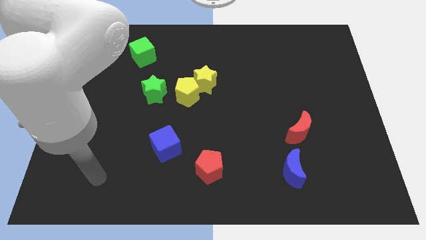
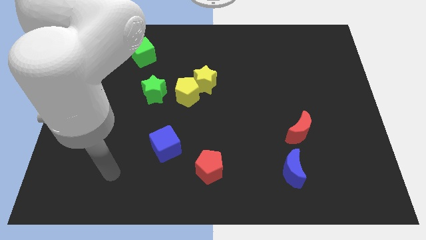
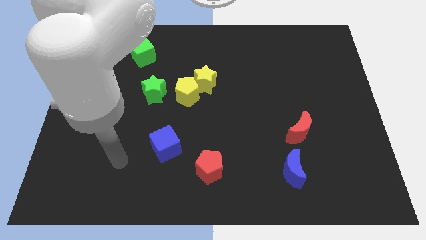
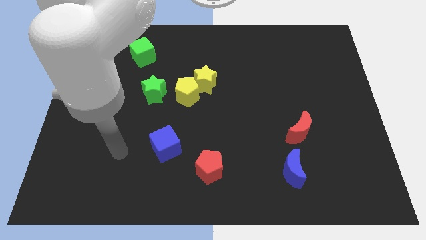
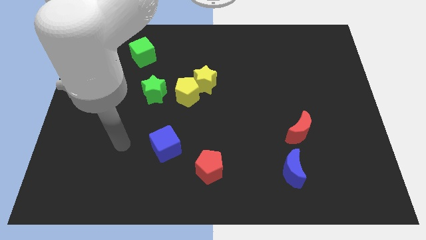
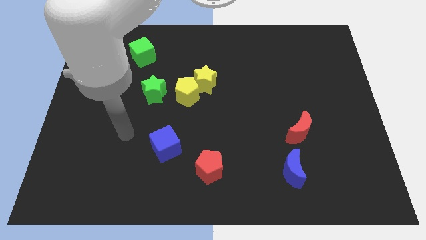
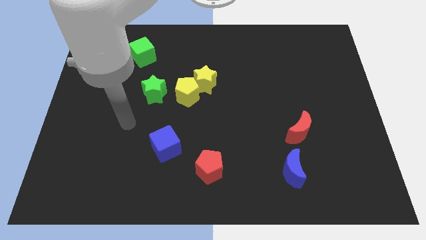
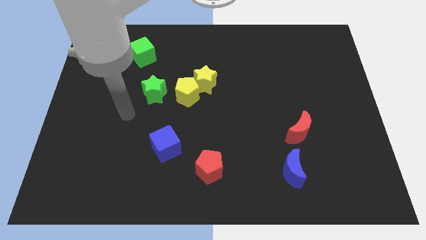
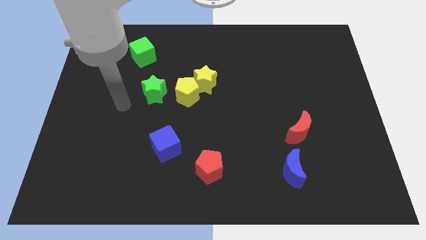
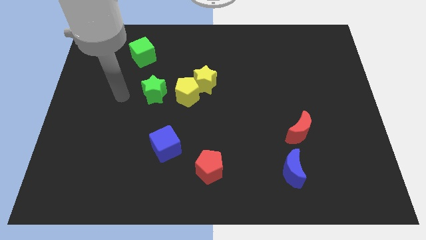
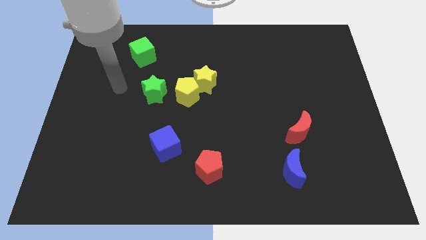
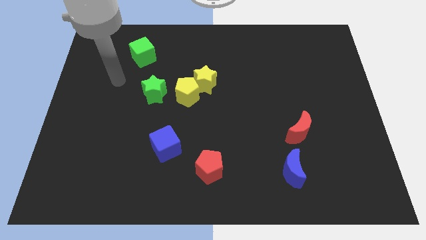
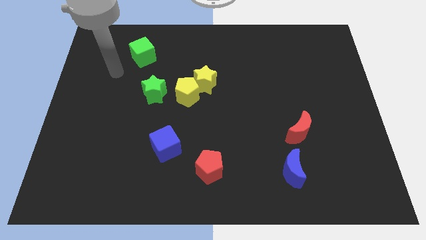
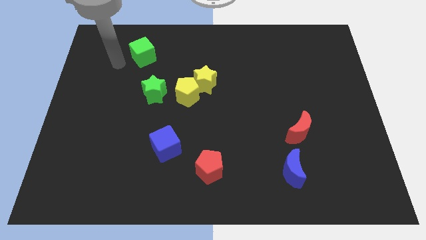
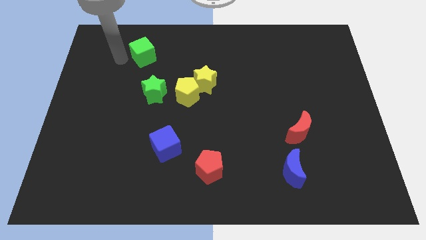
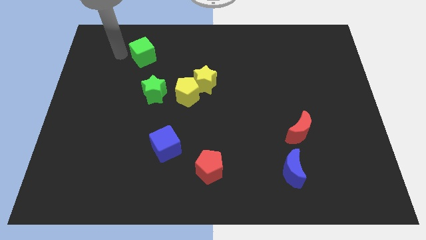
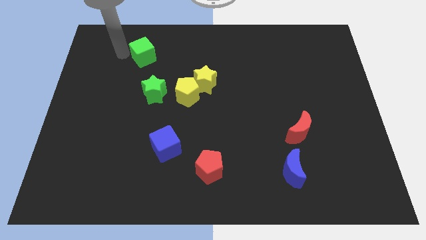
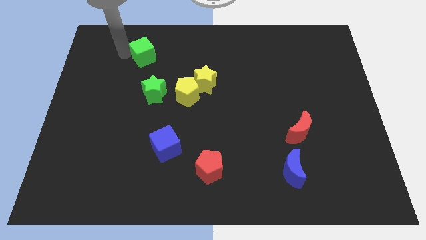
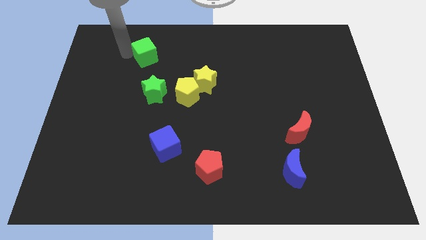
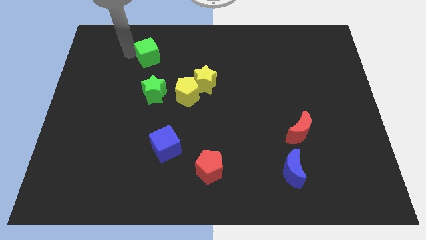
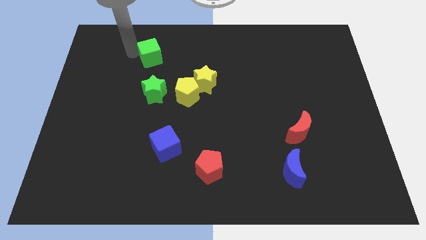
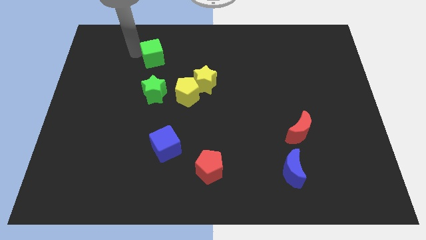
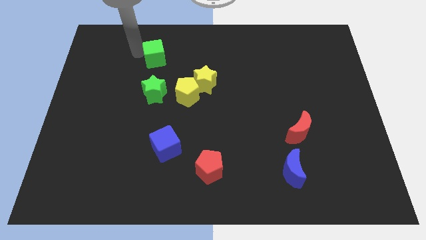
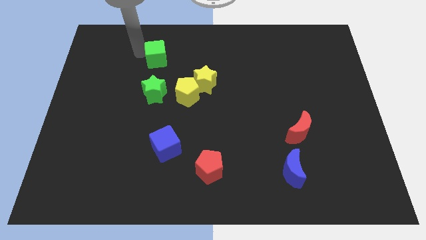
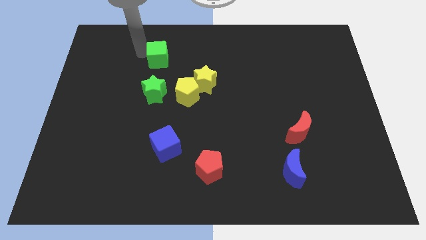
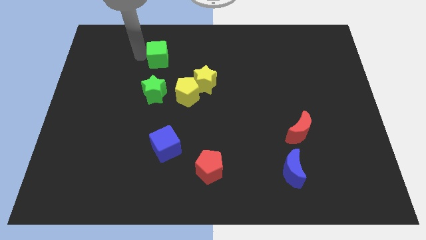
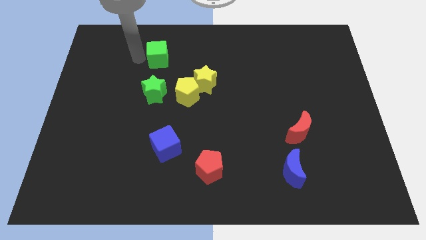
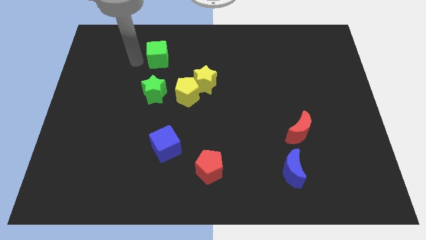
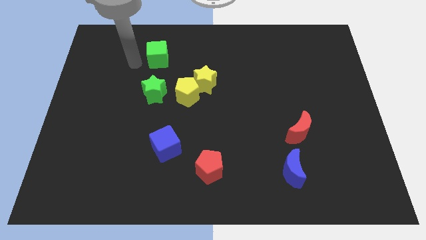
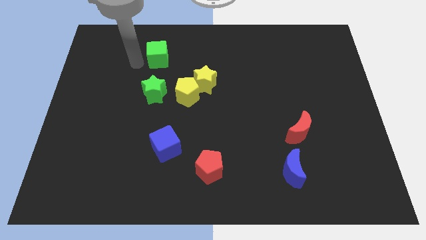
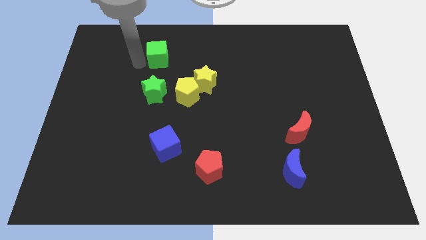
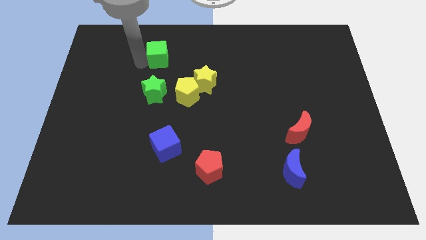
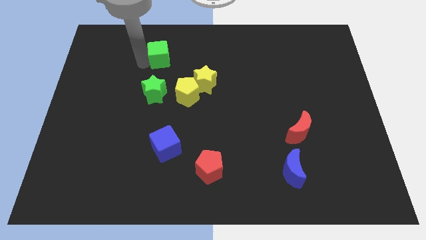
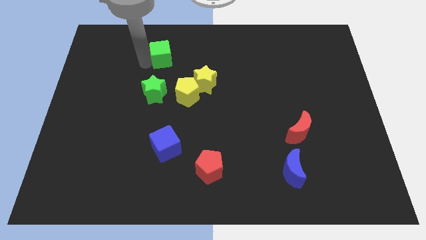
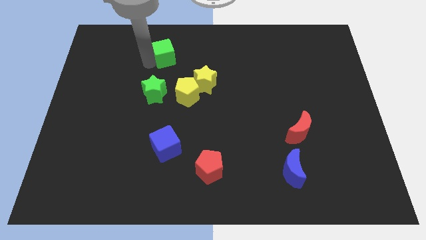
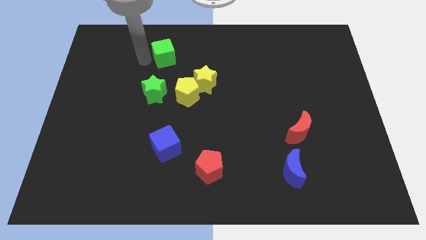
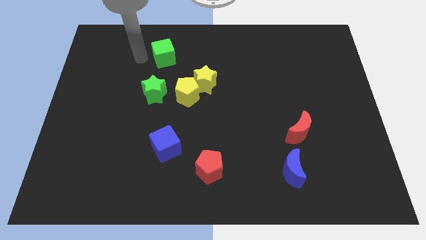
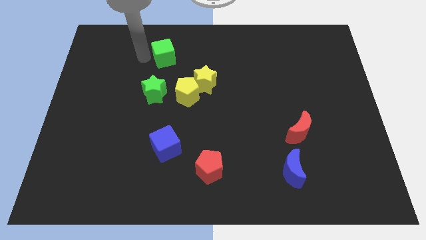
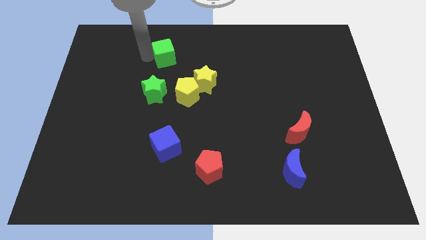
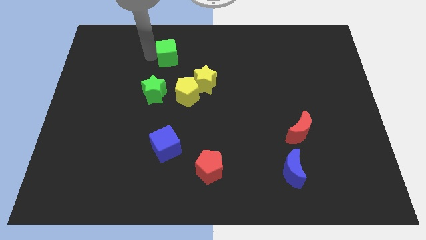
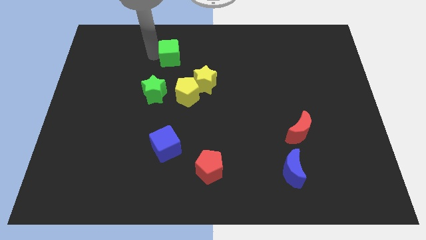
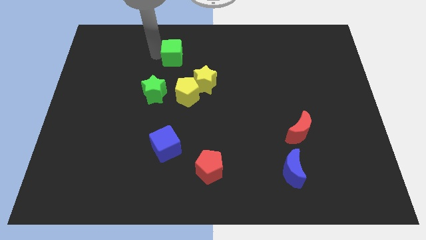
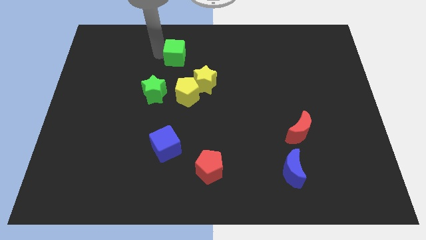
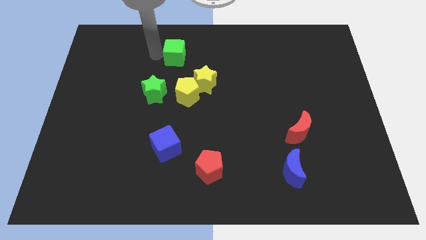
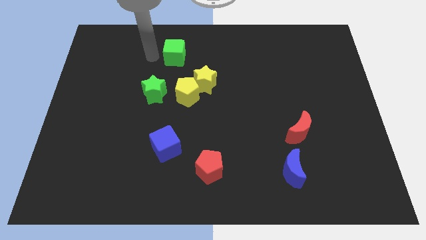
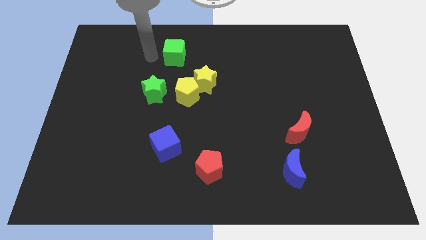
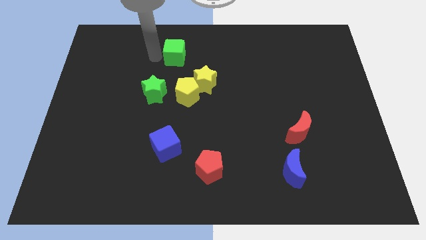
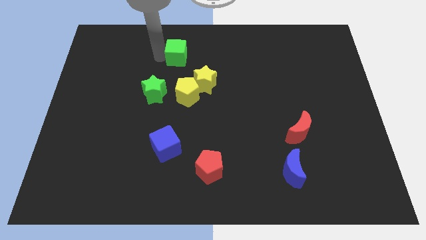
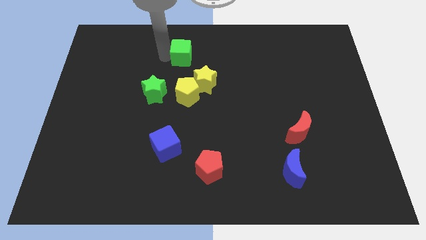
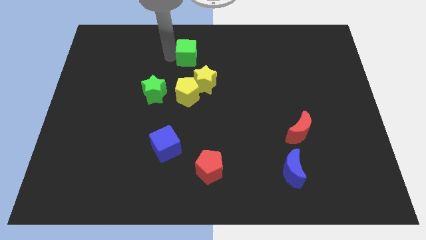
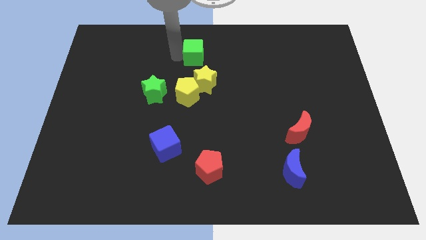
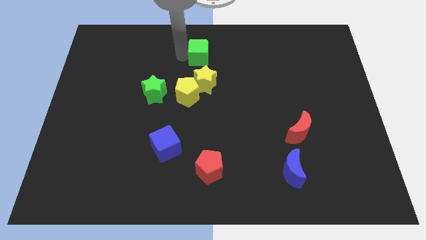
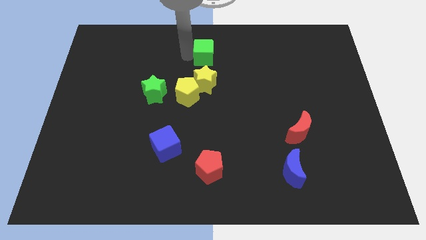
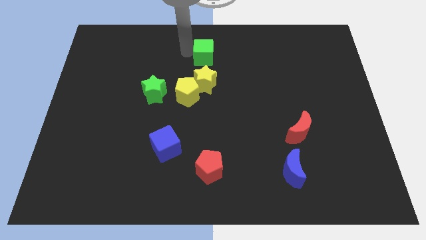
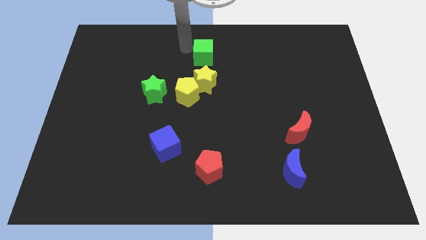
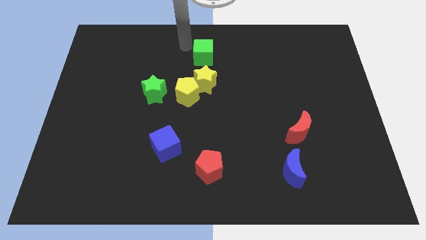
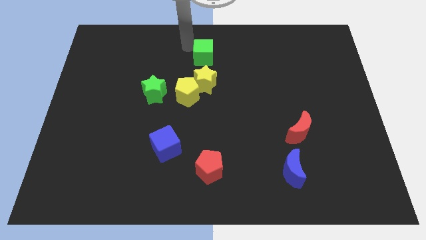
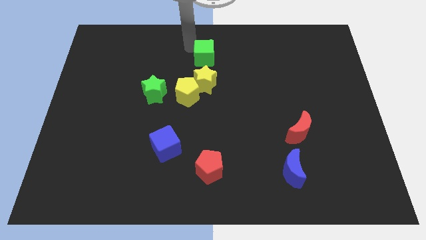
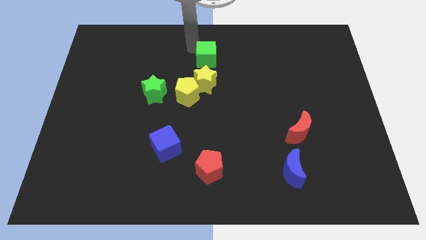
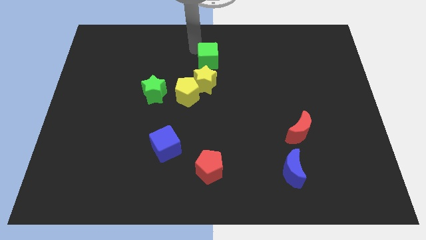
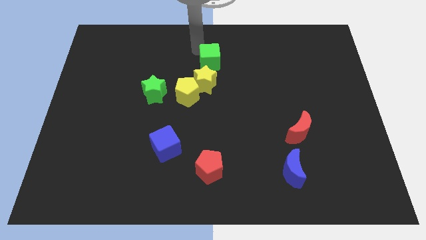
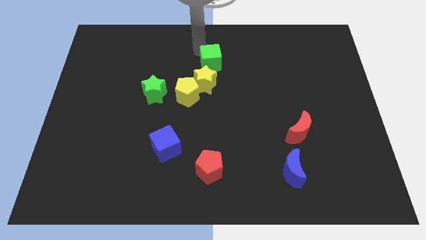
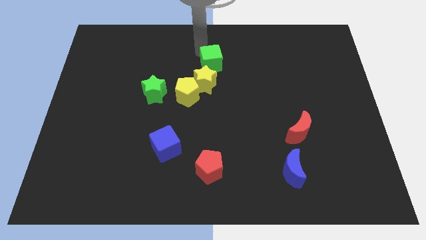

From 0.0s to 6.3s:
push the green cube to the middle
